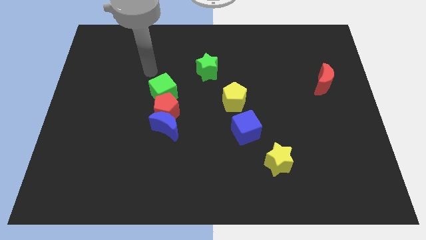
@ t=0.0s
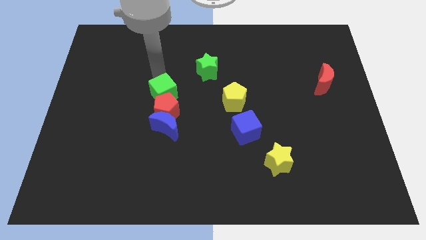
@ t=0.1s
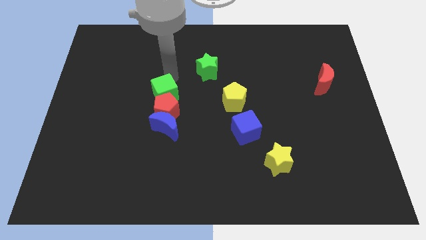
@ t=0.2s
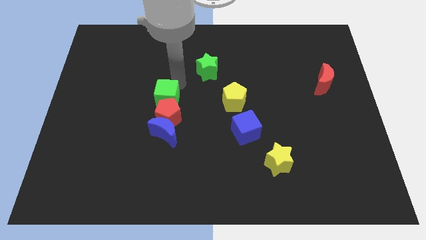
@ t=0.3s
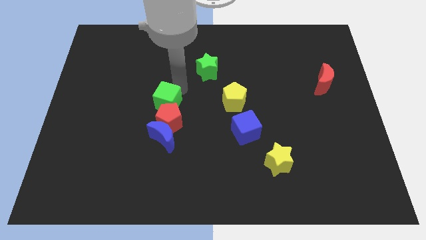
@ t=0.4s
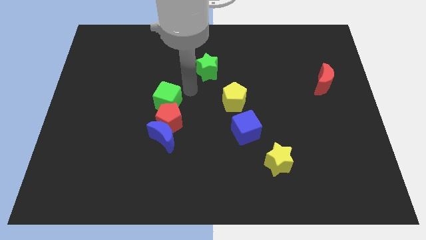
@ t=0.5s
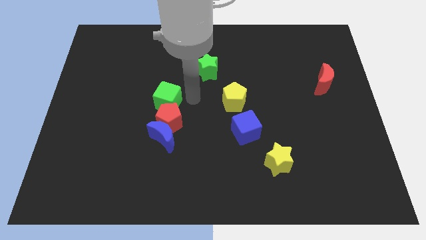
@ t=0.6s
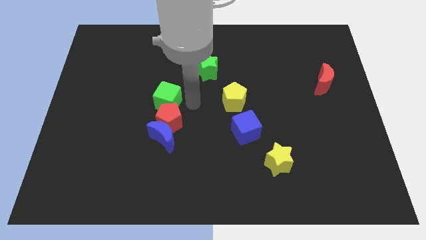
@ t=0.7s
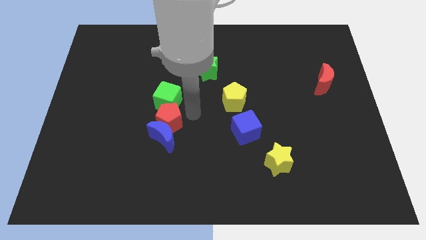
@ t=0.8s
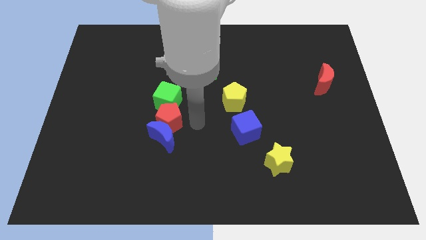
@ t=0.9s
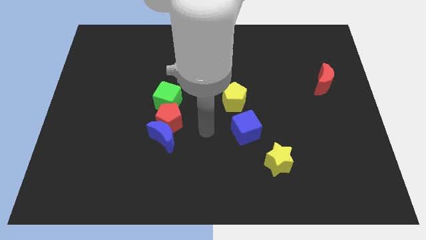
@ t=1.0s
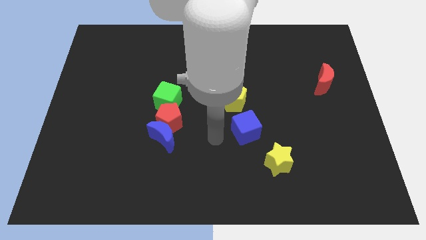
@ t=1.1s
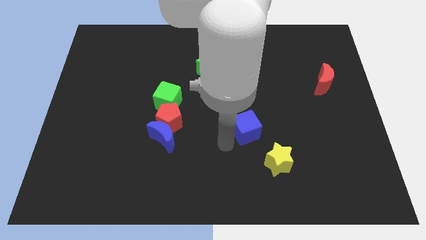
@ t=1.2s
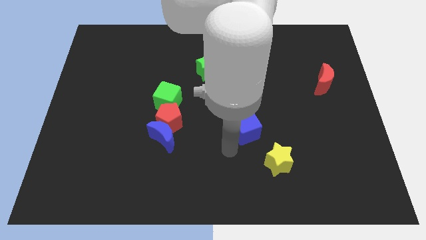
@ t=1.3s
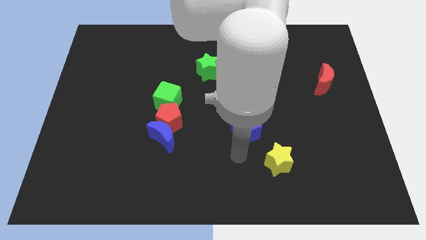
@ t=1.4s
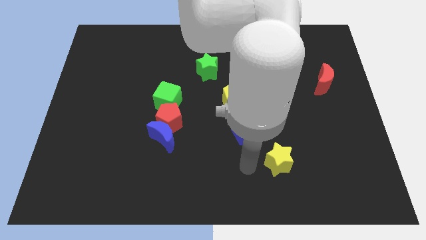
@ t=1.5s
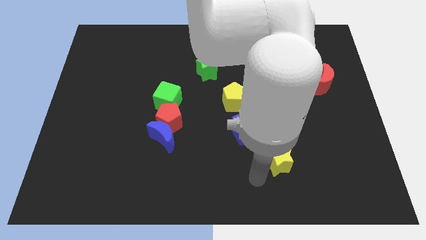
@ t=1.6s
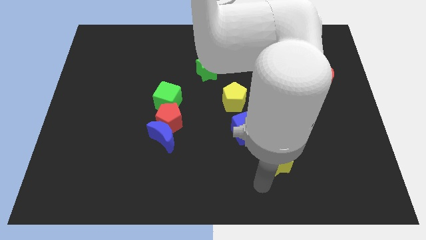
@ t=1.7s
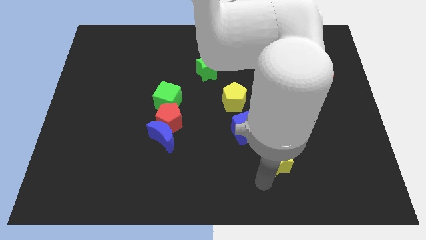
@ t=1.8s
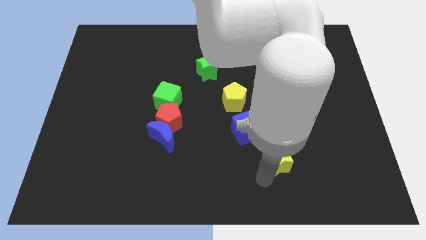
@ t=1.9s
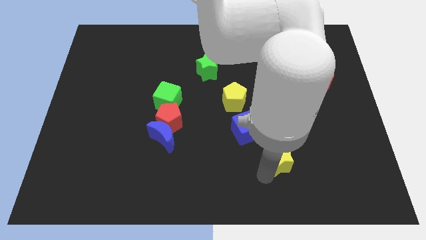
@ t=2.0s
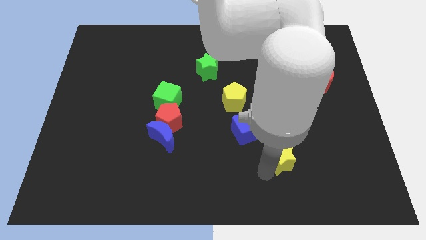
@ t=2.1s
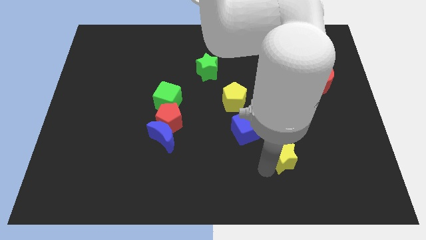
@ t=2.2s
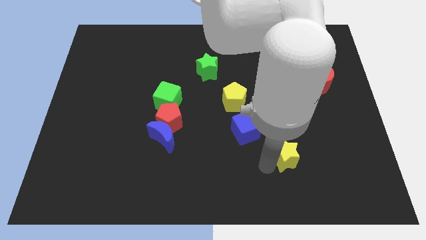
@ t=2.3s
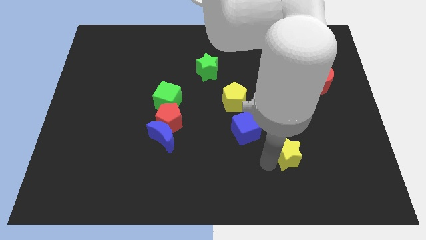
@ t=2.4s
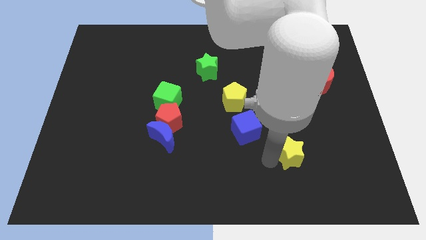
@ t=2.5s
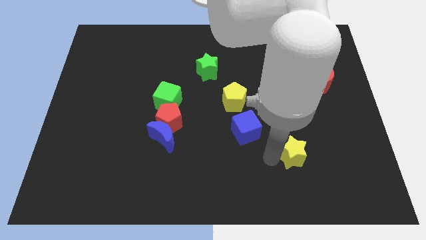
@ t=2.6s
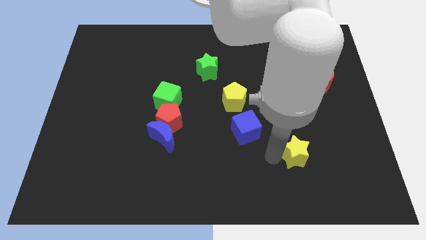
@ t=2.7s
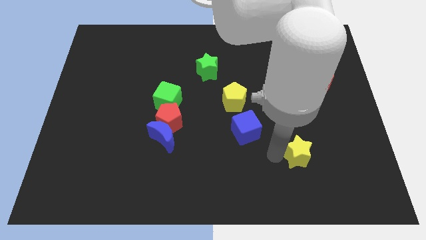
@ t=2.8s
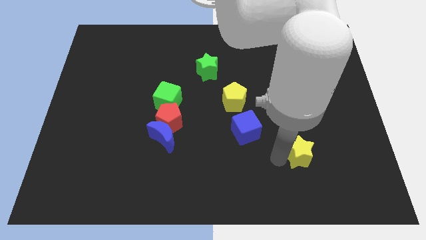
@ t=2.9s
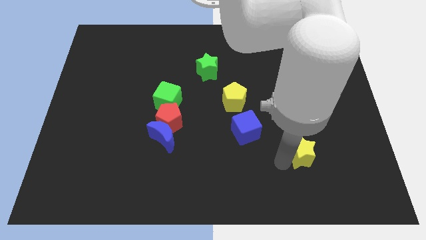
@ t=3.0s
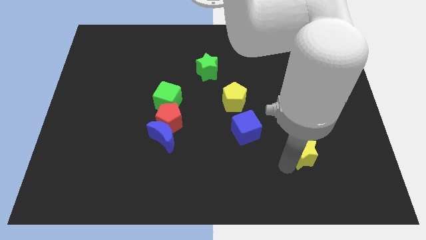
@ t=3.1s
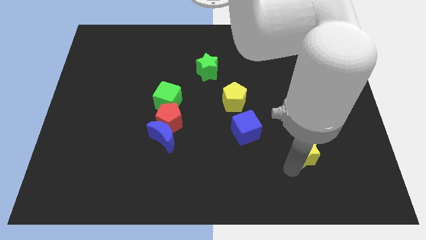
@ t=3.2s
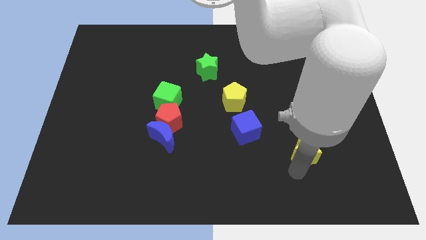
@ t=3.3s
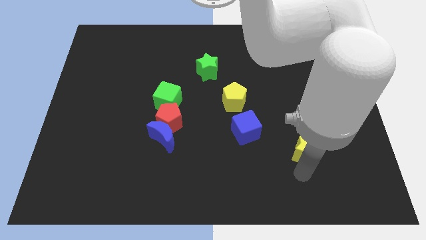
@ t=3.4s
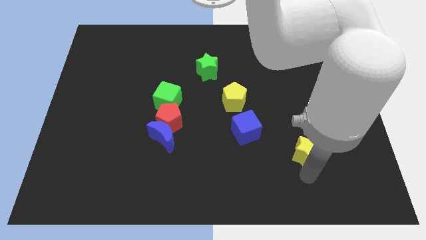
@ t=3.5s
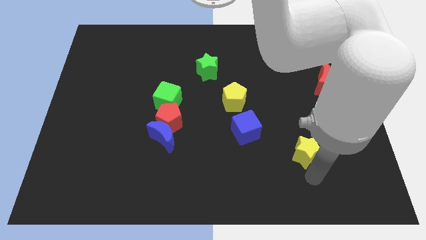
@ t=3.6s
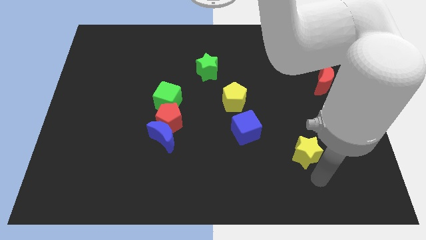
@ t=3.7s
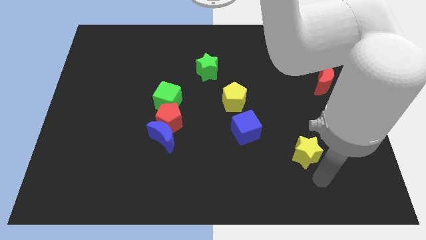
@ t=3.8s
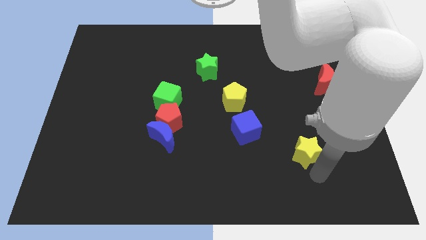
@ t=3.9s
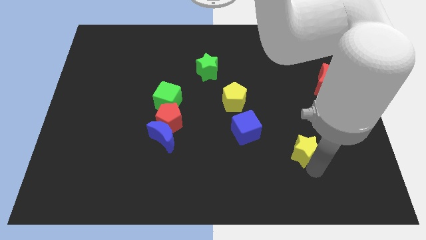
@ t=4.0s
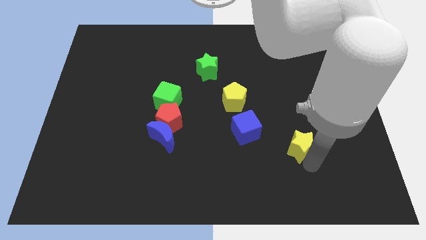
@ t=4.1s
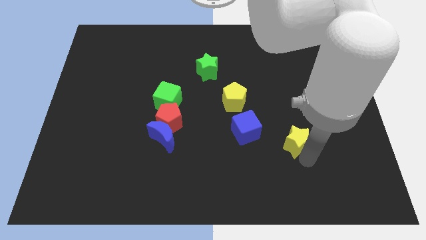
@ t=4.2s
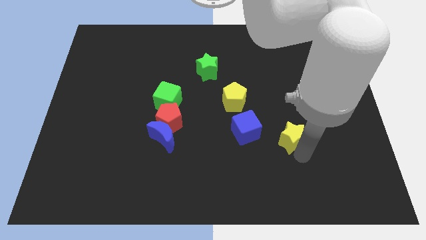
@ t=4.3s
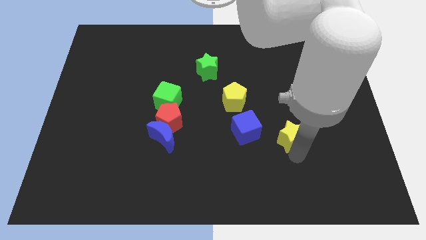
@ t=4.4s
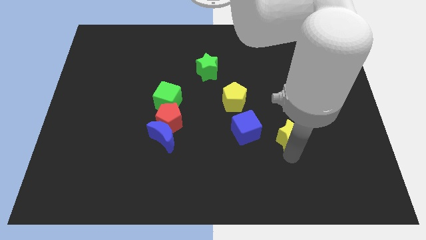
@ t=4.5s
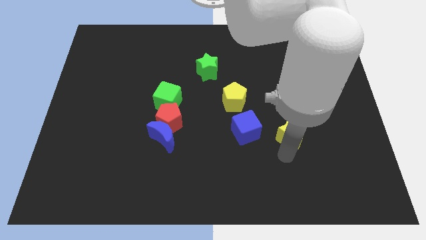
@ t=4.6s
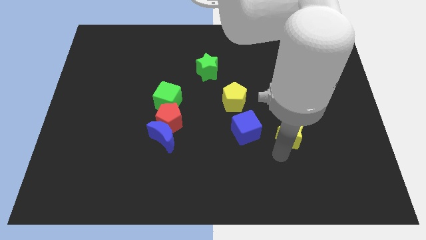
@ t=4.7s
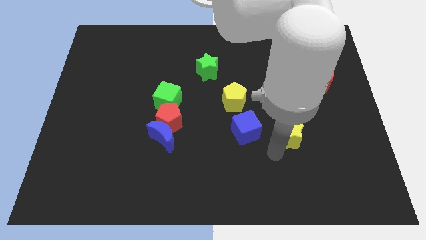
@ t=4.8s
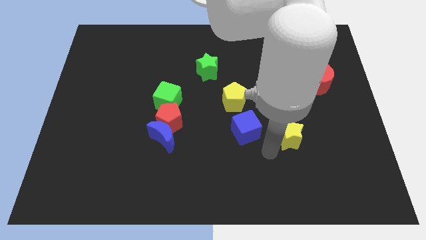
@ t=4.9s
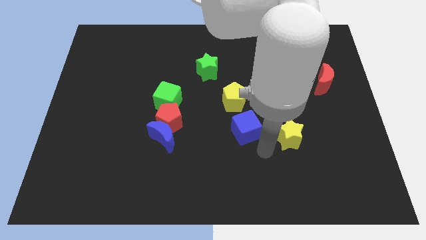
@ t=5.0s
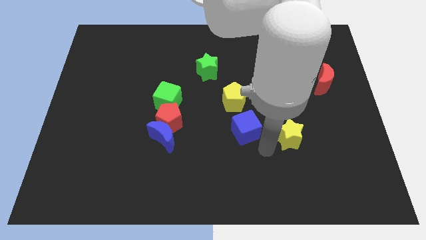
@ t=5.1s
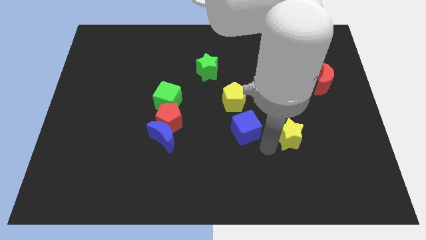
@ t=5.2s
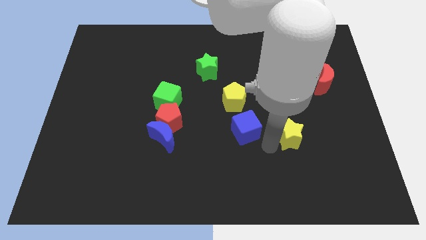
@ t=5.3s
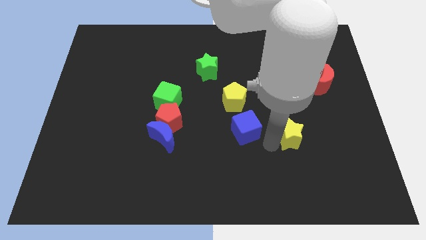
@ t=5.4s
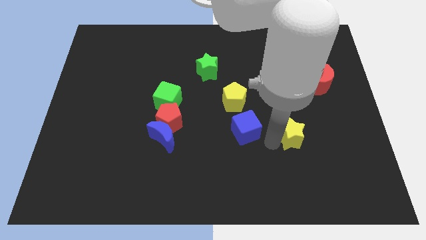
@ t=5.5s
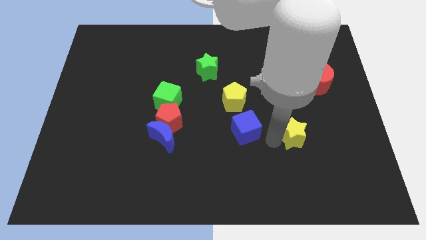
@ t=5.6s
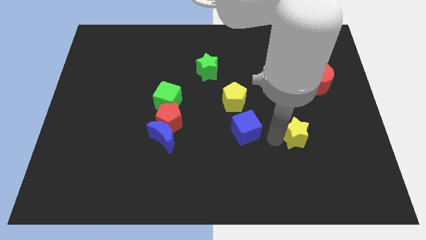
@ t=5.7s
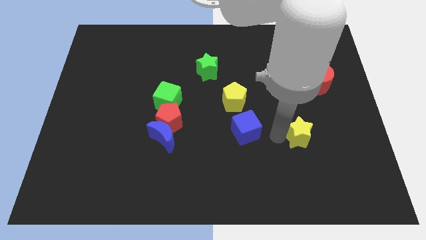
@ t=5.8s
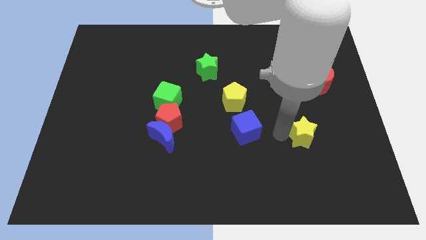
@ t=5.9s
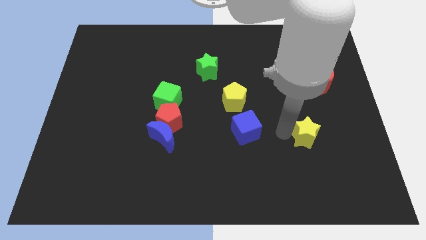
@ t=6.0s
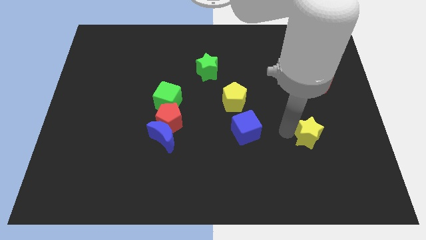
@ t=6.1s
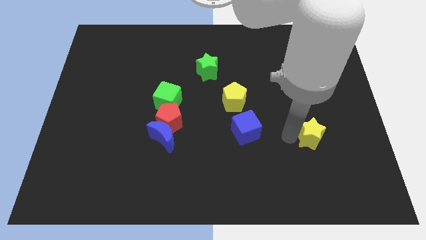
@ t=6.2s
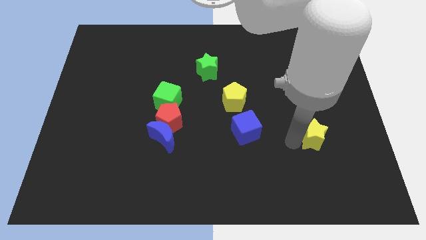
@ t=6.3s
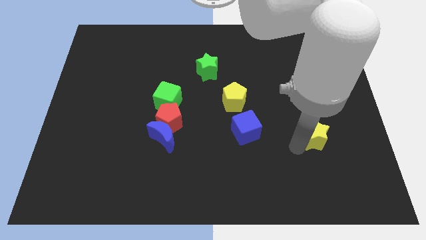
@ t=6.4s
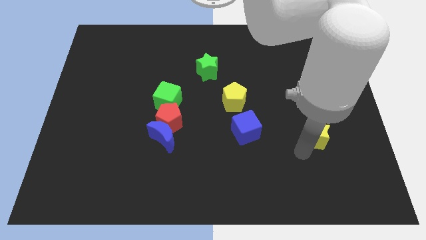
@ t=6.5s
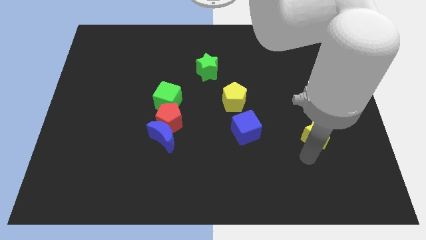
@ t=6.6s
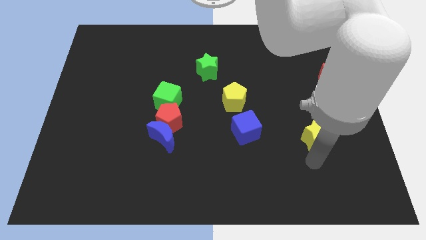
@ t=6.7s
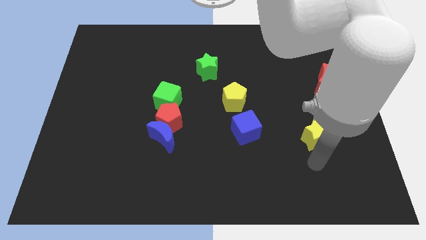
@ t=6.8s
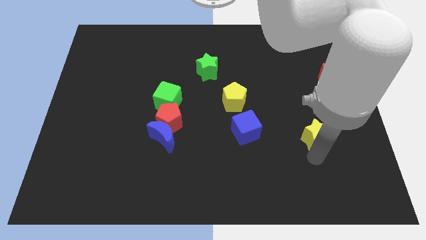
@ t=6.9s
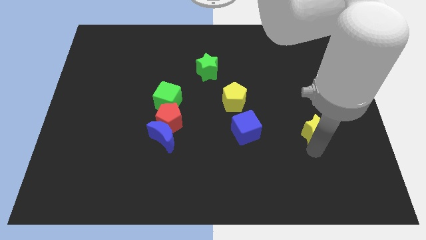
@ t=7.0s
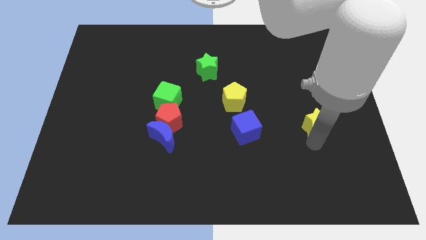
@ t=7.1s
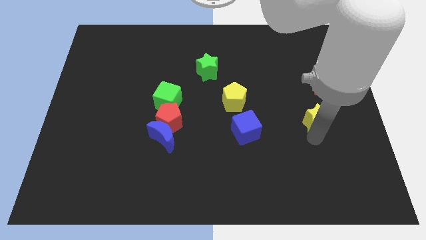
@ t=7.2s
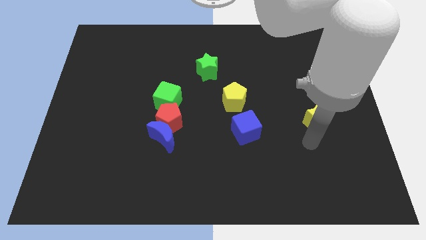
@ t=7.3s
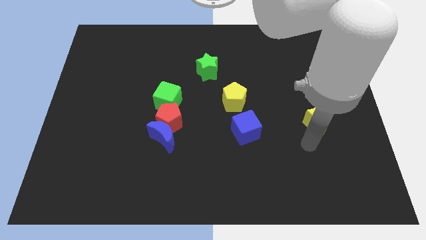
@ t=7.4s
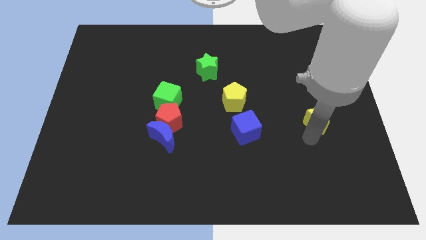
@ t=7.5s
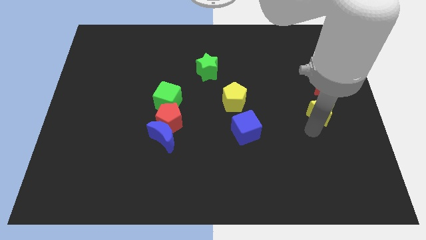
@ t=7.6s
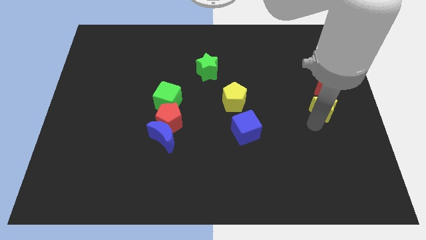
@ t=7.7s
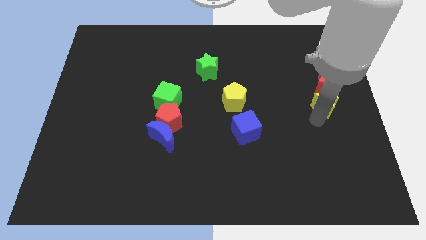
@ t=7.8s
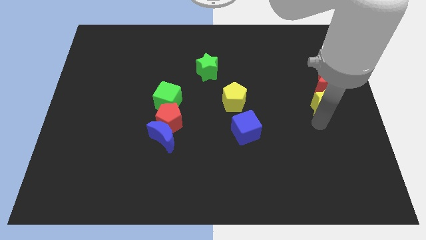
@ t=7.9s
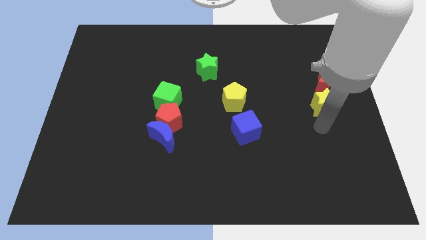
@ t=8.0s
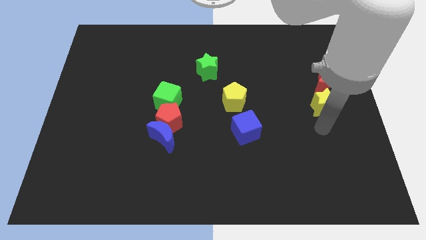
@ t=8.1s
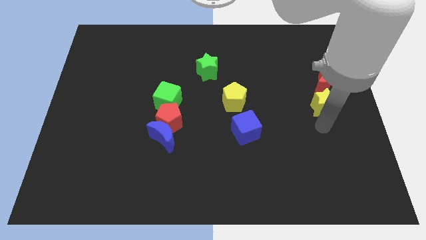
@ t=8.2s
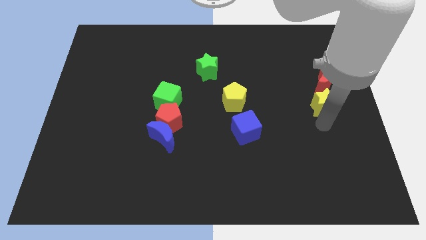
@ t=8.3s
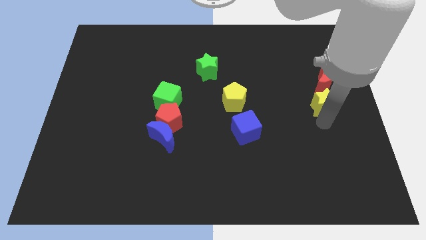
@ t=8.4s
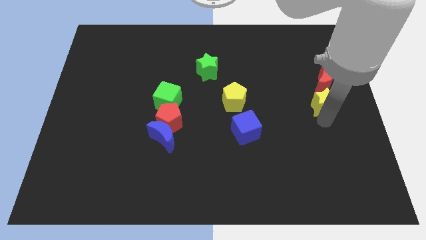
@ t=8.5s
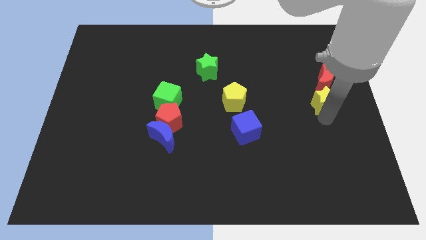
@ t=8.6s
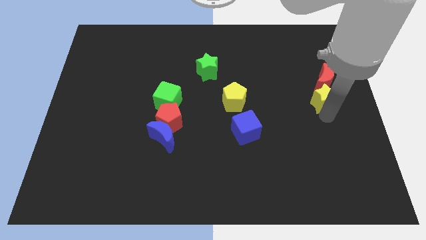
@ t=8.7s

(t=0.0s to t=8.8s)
move the yellow star towards the red moon
